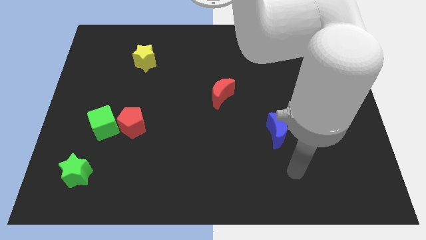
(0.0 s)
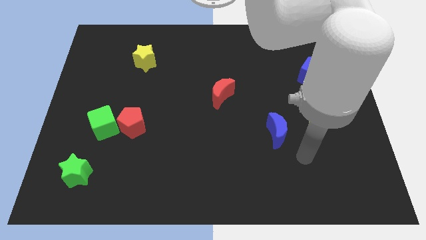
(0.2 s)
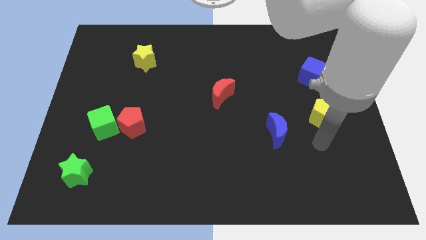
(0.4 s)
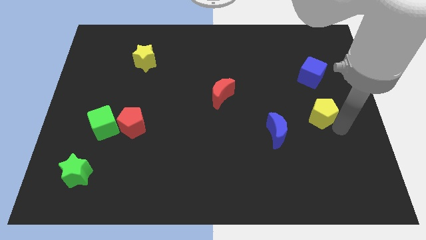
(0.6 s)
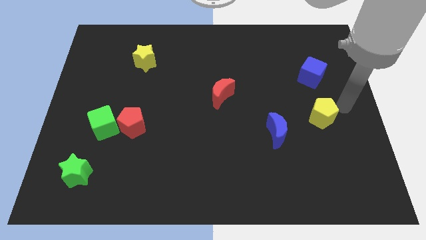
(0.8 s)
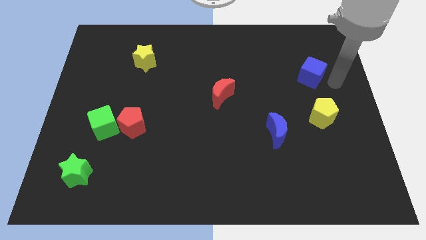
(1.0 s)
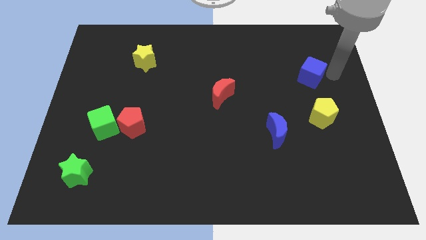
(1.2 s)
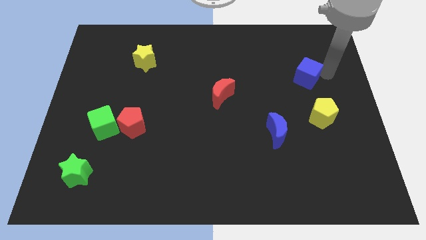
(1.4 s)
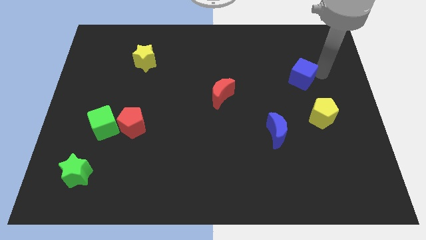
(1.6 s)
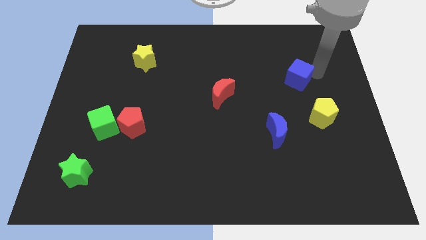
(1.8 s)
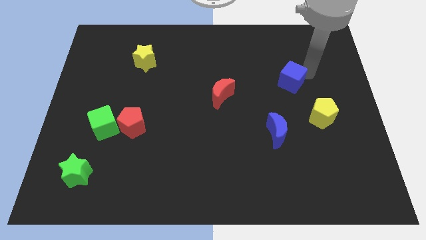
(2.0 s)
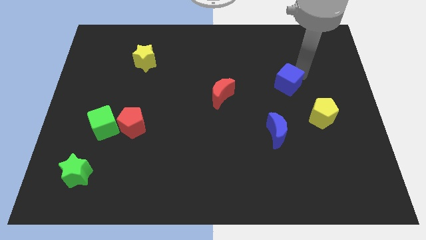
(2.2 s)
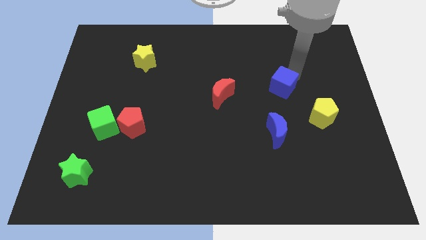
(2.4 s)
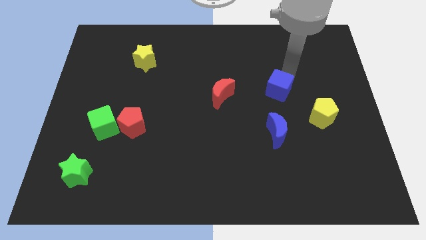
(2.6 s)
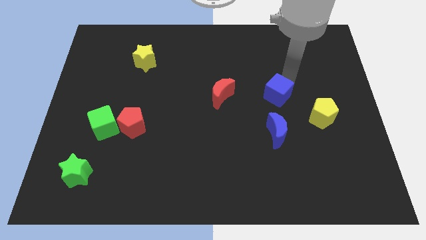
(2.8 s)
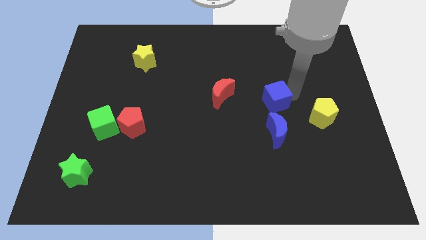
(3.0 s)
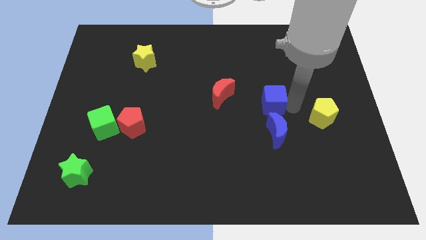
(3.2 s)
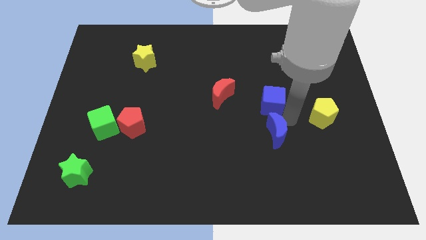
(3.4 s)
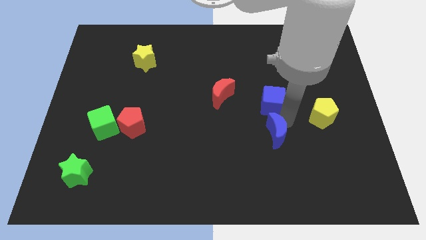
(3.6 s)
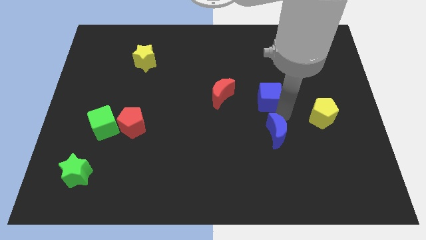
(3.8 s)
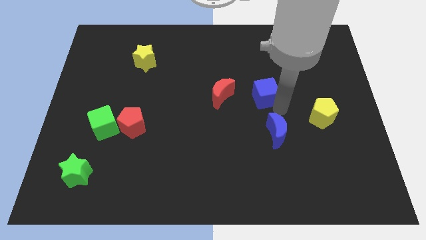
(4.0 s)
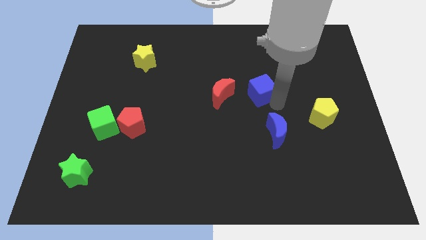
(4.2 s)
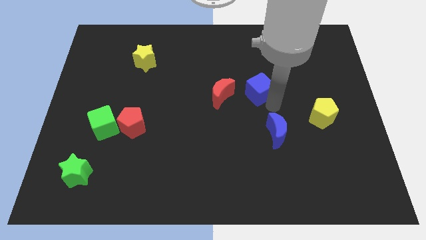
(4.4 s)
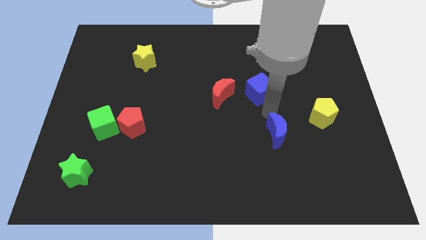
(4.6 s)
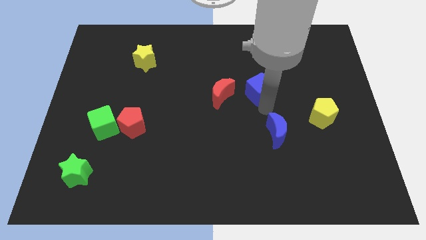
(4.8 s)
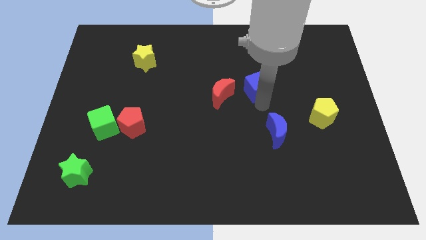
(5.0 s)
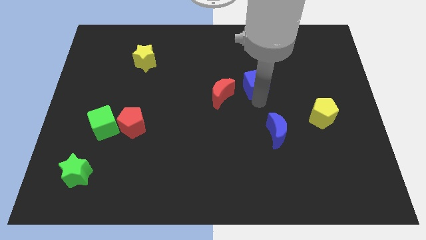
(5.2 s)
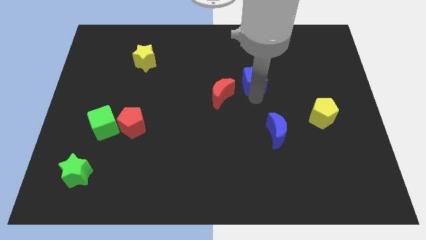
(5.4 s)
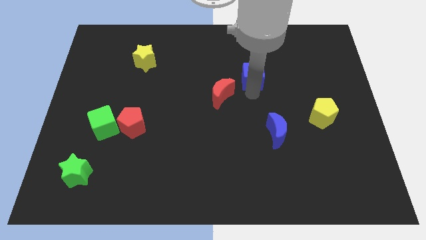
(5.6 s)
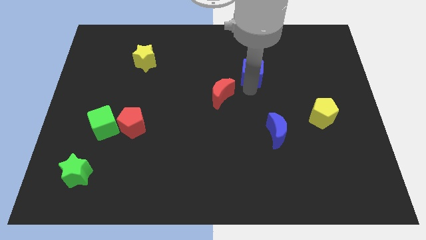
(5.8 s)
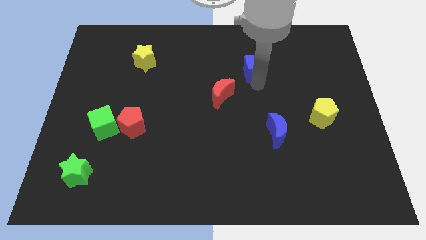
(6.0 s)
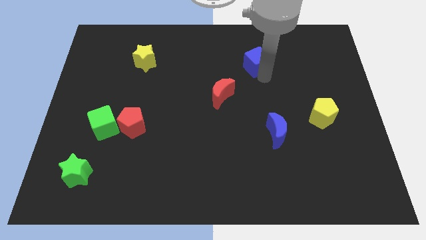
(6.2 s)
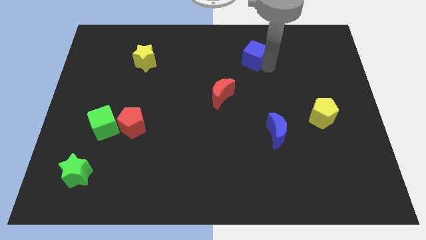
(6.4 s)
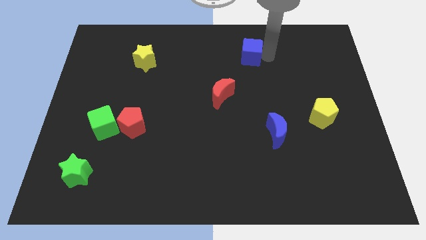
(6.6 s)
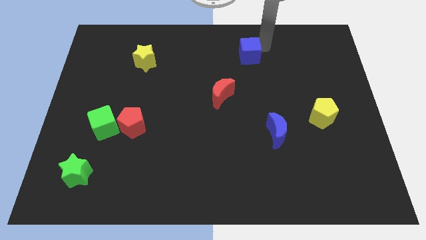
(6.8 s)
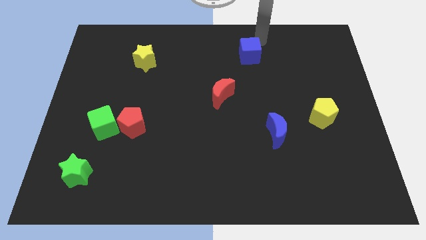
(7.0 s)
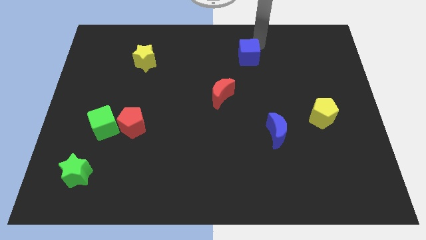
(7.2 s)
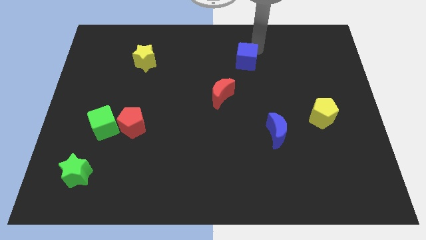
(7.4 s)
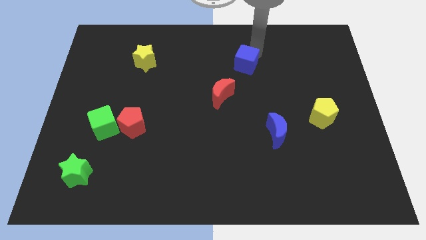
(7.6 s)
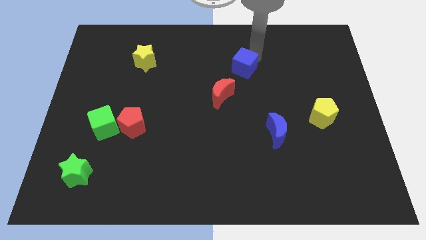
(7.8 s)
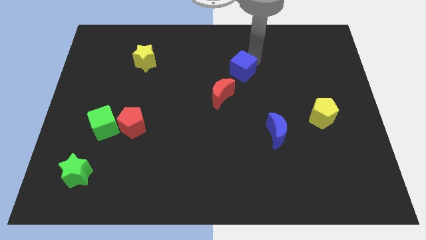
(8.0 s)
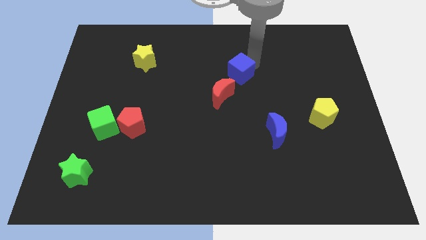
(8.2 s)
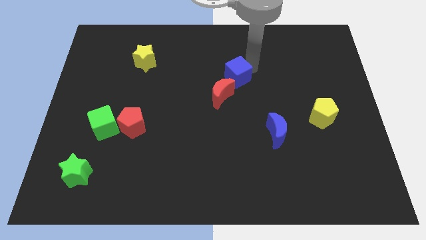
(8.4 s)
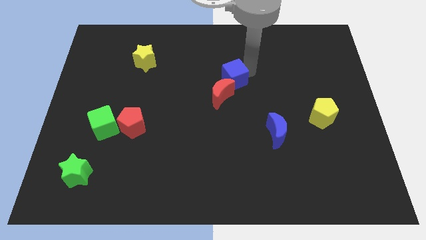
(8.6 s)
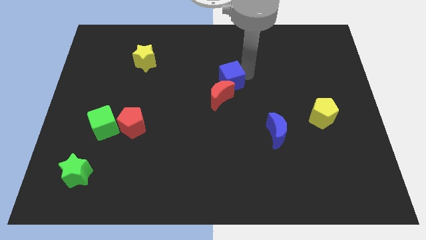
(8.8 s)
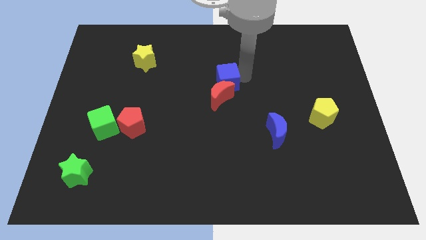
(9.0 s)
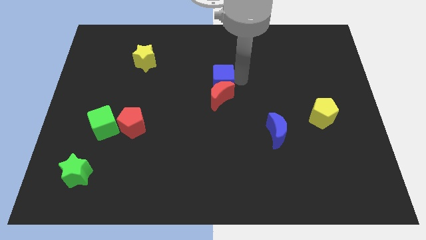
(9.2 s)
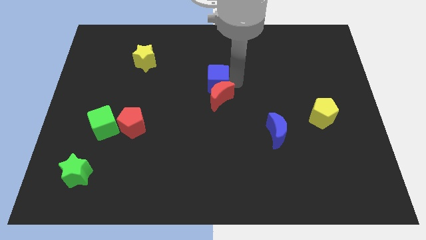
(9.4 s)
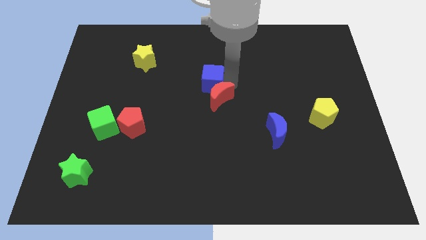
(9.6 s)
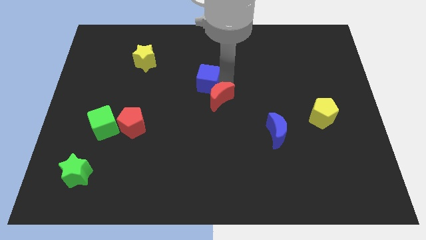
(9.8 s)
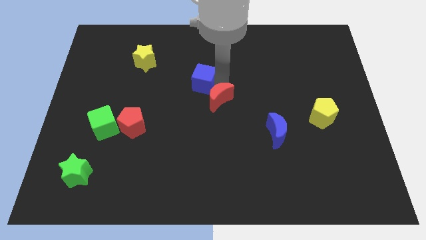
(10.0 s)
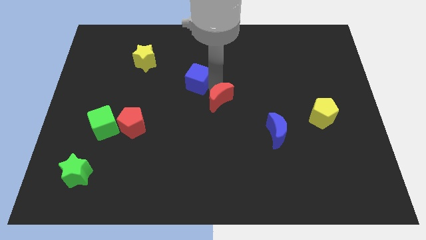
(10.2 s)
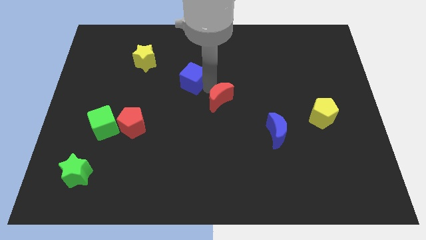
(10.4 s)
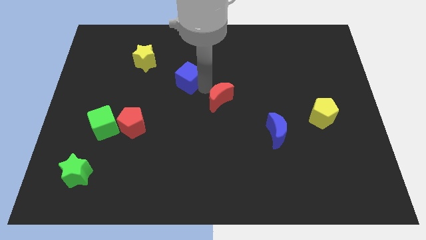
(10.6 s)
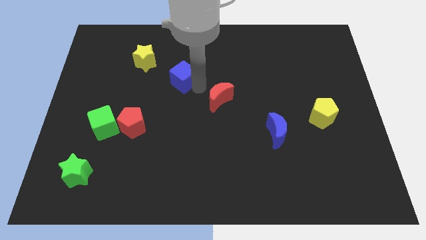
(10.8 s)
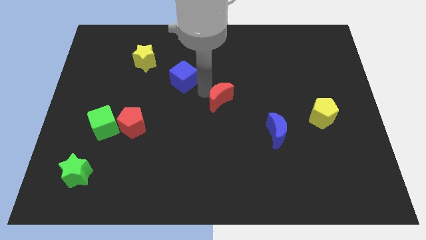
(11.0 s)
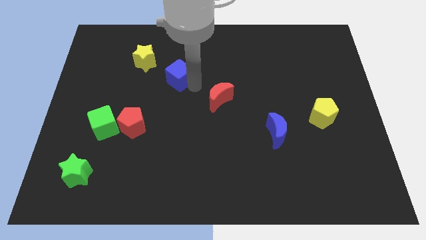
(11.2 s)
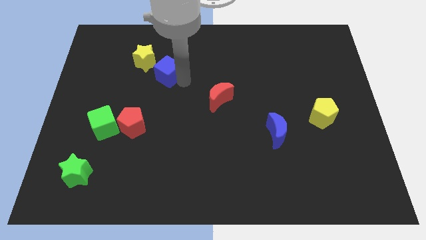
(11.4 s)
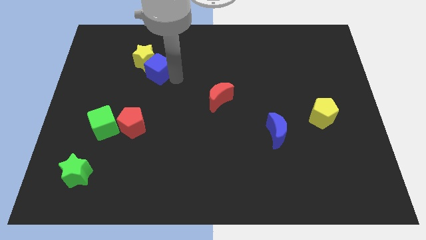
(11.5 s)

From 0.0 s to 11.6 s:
put the blue cube towards the yellow star

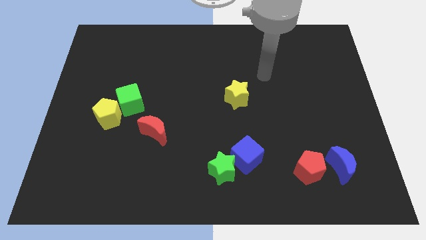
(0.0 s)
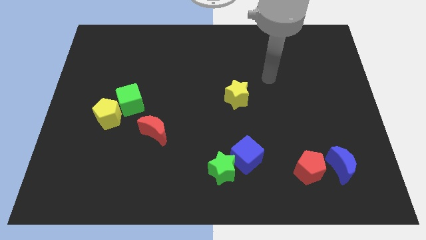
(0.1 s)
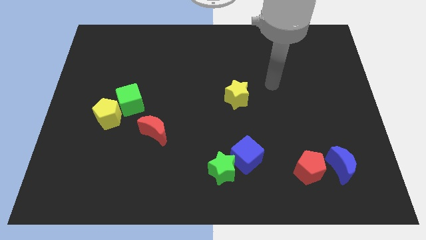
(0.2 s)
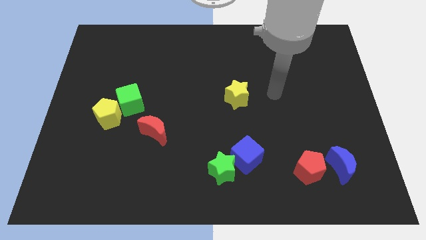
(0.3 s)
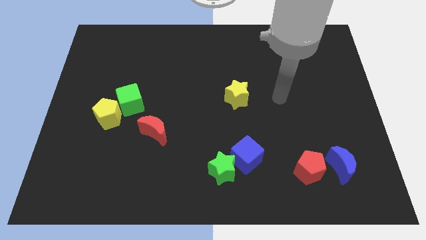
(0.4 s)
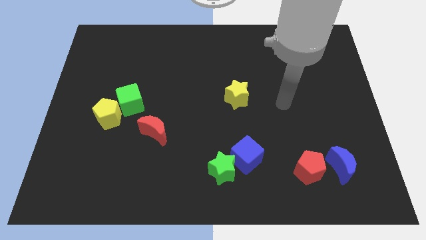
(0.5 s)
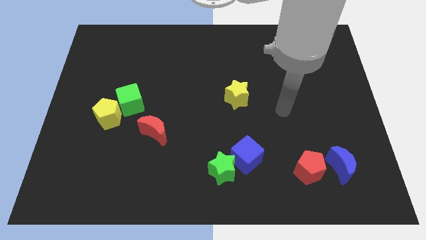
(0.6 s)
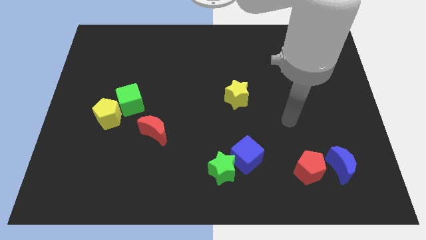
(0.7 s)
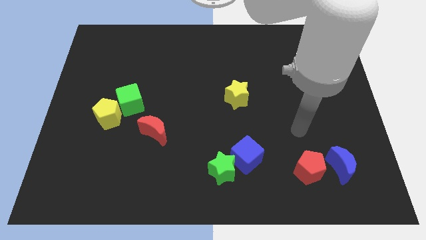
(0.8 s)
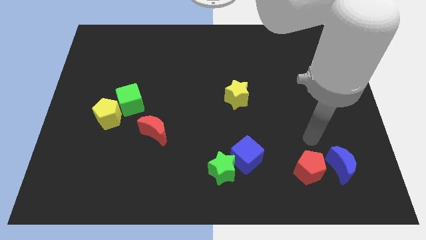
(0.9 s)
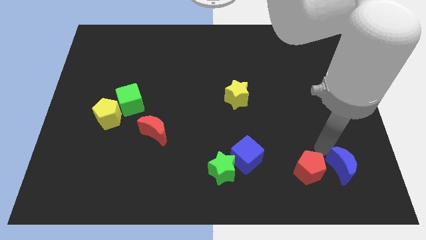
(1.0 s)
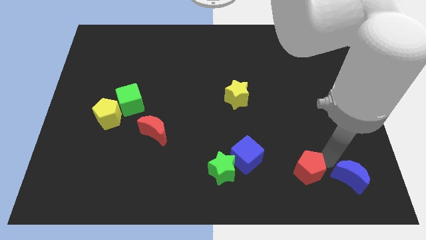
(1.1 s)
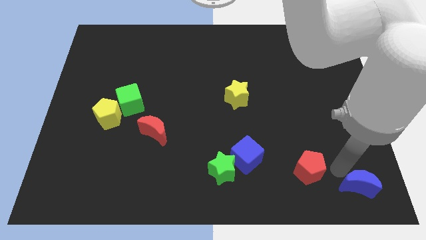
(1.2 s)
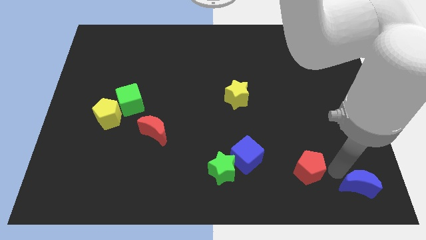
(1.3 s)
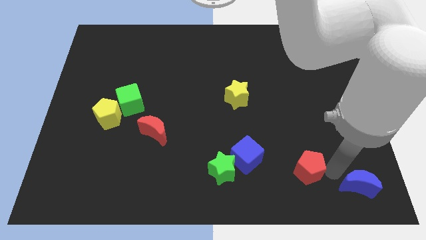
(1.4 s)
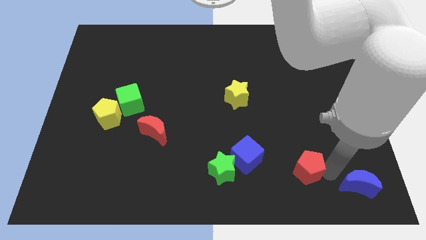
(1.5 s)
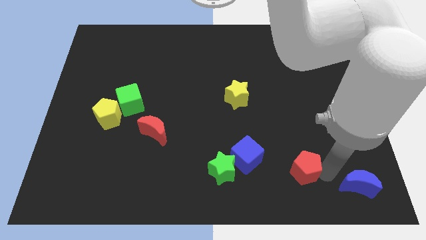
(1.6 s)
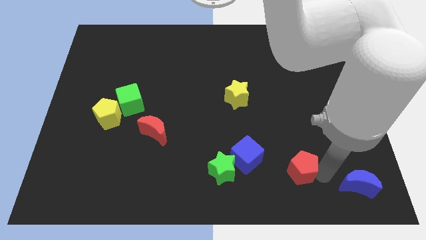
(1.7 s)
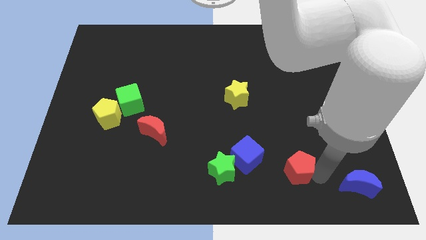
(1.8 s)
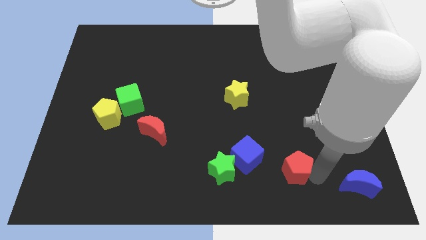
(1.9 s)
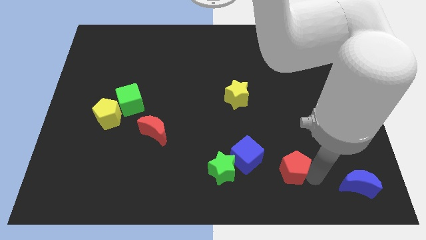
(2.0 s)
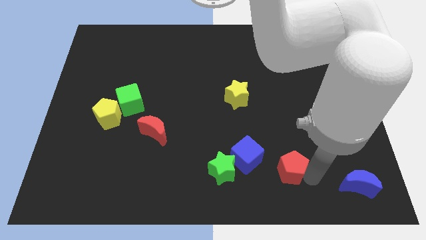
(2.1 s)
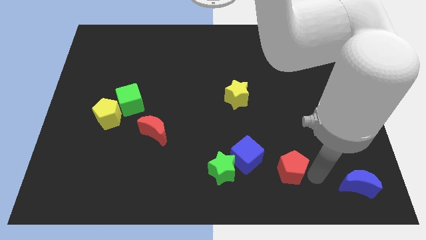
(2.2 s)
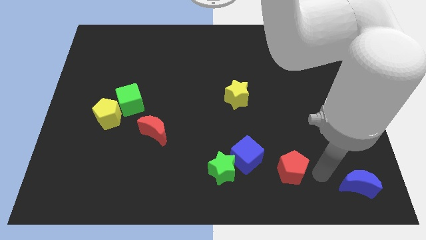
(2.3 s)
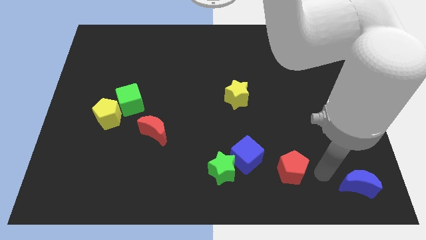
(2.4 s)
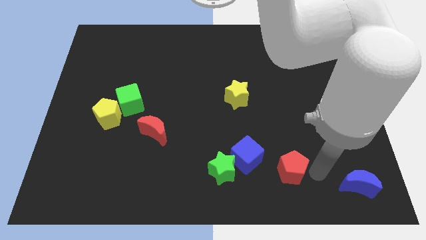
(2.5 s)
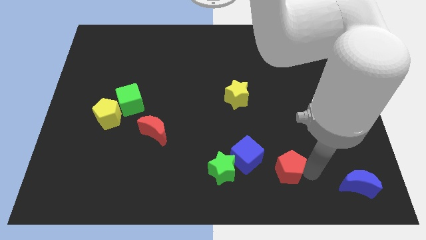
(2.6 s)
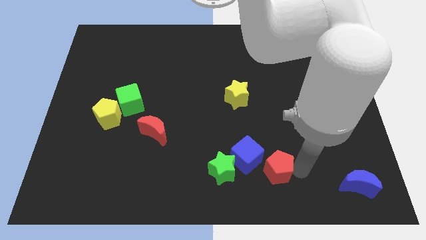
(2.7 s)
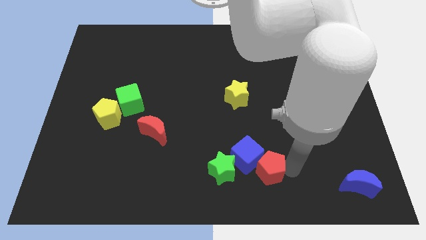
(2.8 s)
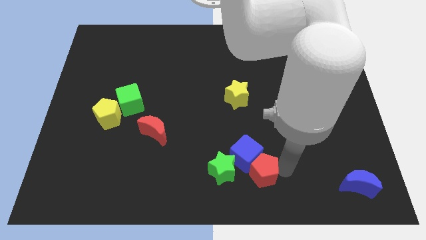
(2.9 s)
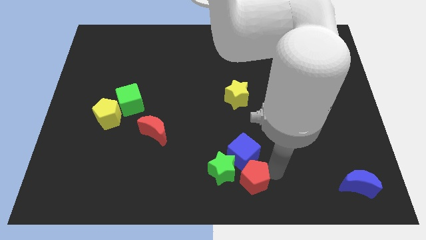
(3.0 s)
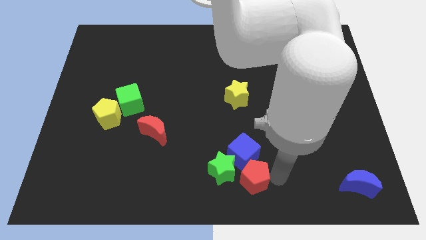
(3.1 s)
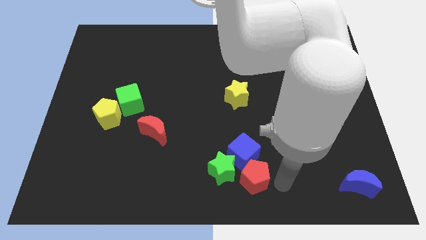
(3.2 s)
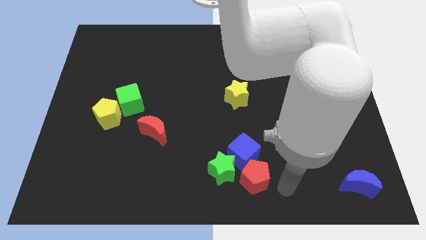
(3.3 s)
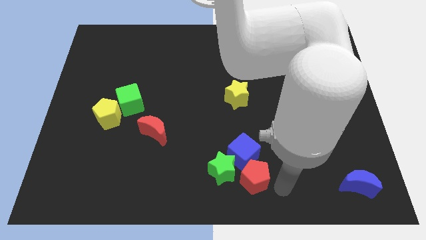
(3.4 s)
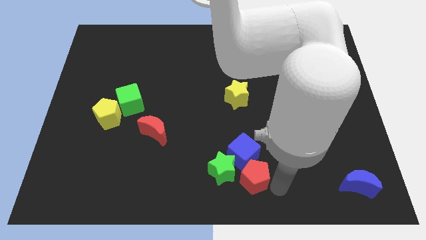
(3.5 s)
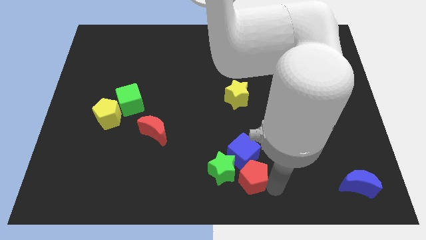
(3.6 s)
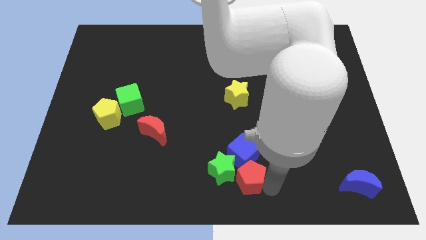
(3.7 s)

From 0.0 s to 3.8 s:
push the red pentagon towards the green star
